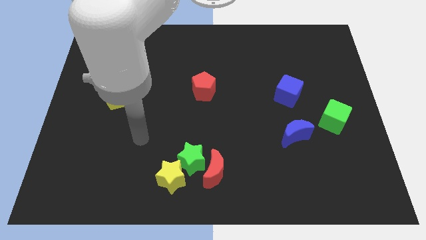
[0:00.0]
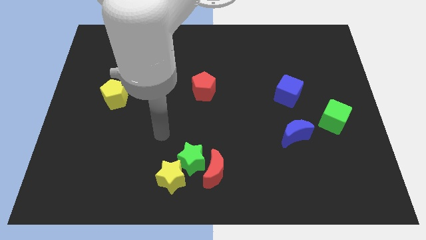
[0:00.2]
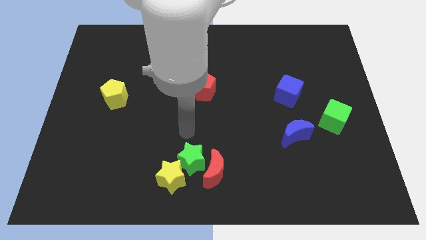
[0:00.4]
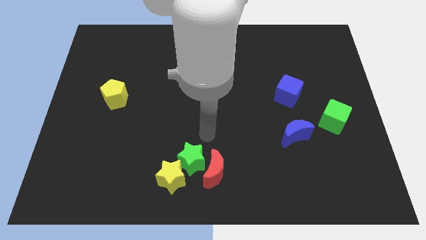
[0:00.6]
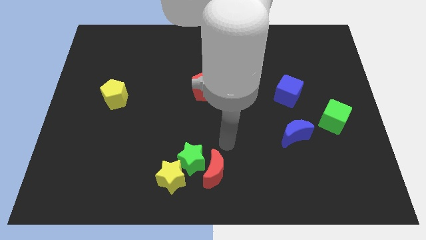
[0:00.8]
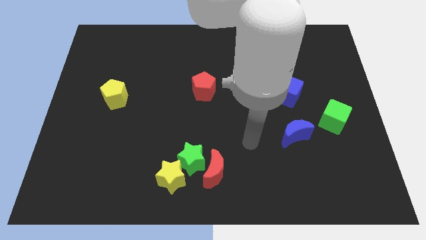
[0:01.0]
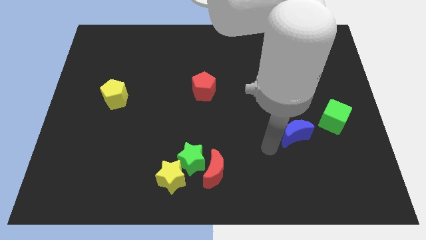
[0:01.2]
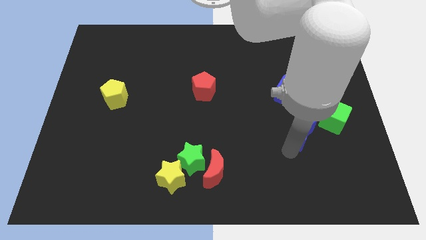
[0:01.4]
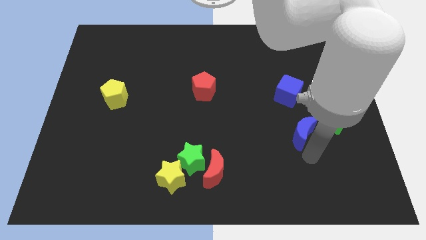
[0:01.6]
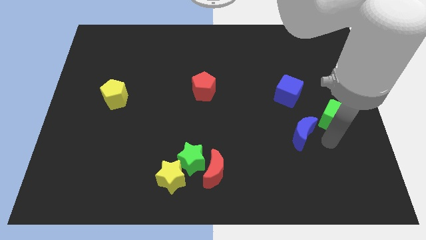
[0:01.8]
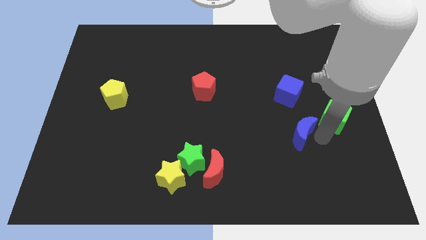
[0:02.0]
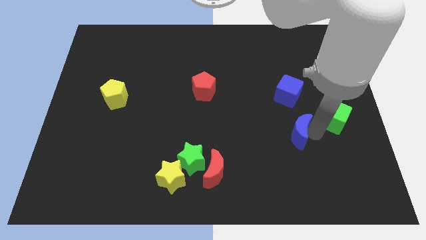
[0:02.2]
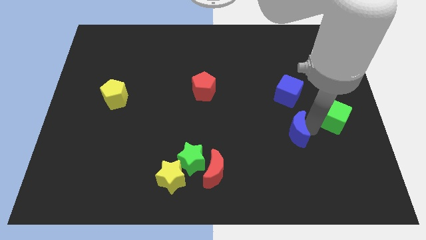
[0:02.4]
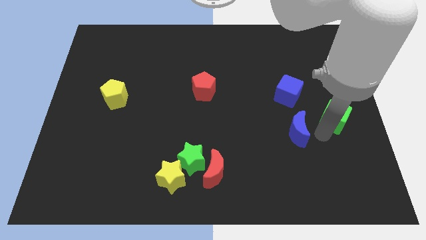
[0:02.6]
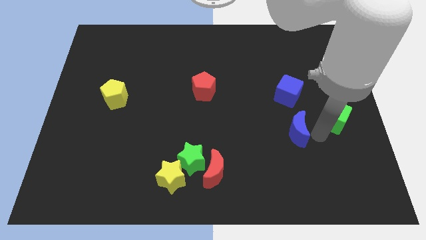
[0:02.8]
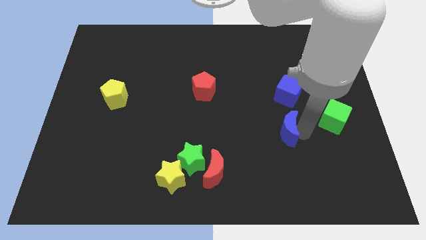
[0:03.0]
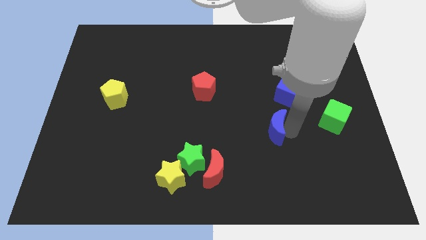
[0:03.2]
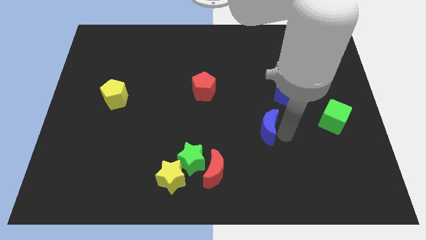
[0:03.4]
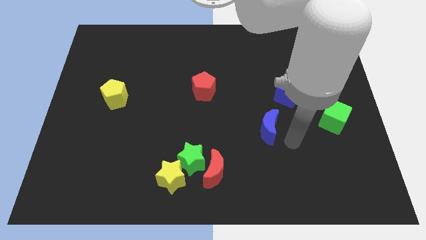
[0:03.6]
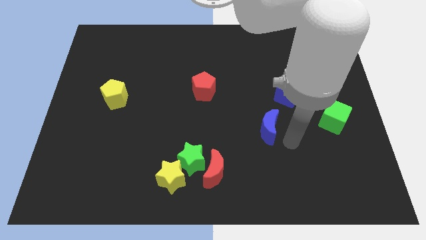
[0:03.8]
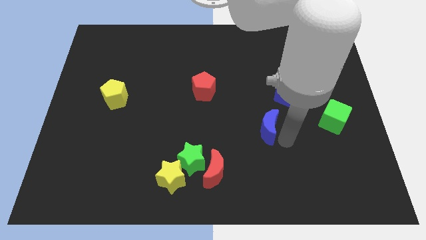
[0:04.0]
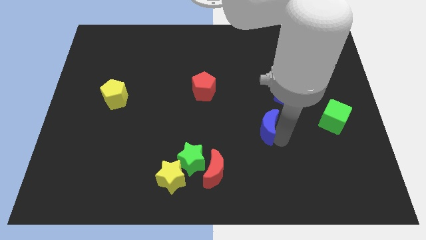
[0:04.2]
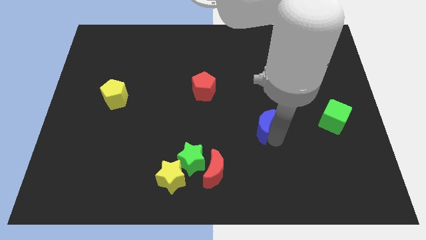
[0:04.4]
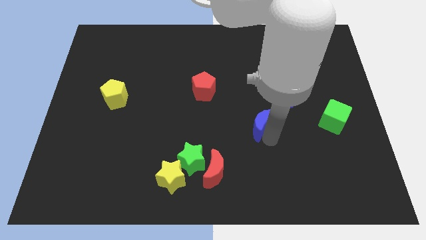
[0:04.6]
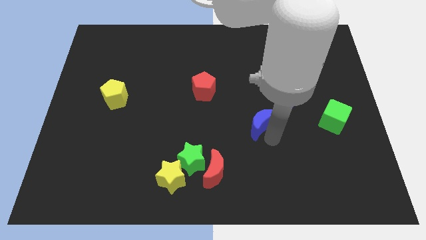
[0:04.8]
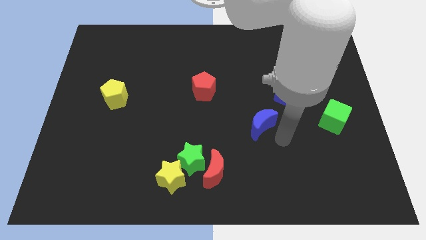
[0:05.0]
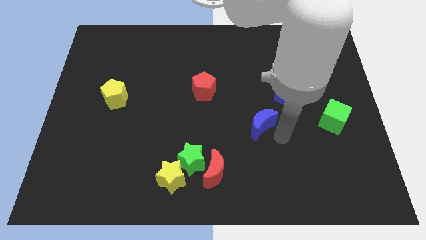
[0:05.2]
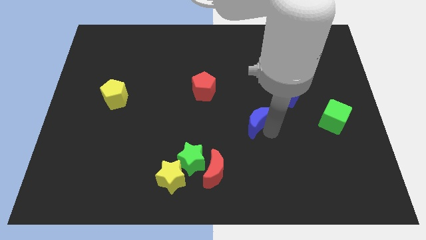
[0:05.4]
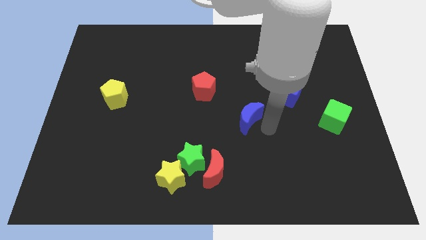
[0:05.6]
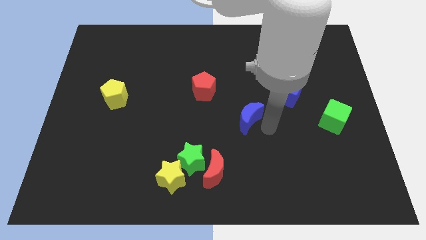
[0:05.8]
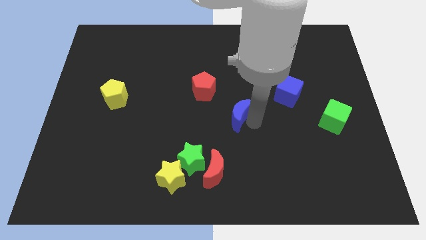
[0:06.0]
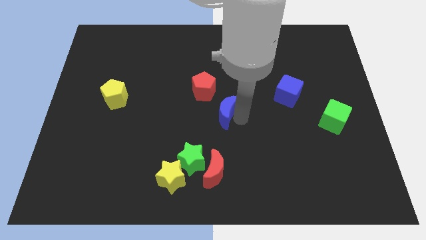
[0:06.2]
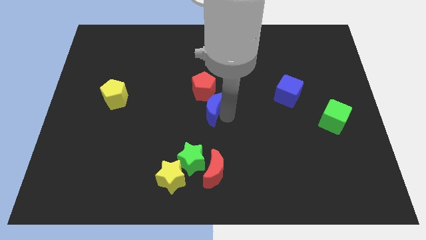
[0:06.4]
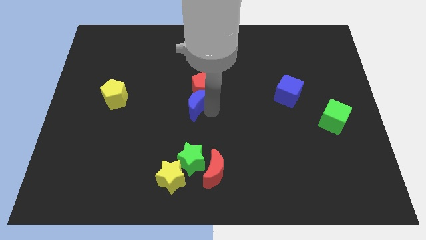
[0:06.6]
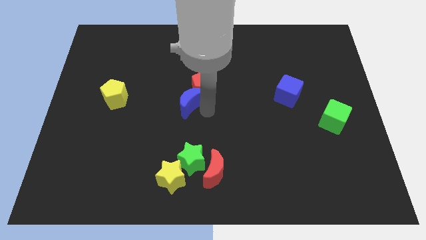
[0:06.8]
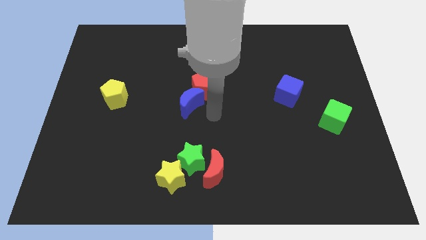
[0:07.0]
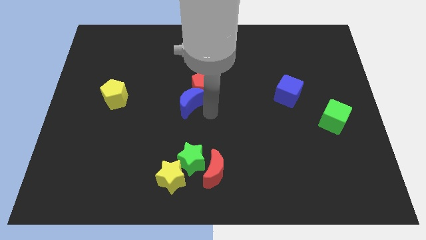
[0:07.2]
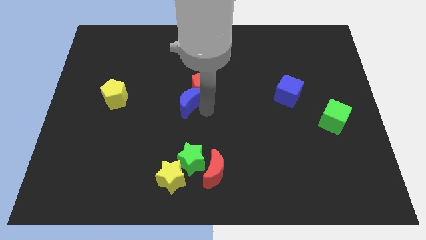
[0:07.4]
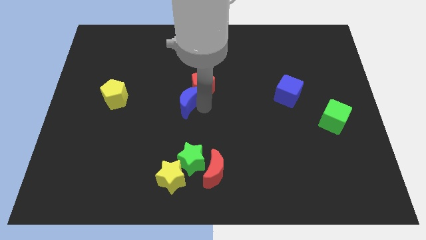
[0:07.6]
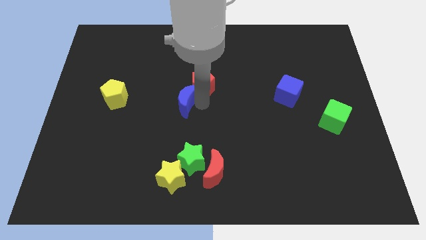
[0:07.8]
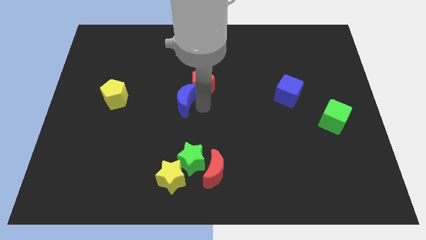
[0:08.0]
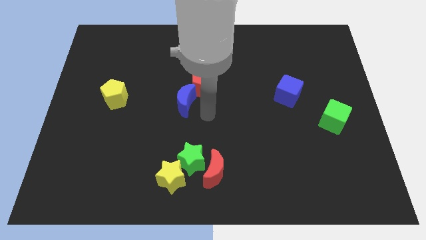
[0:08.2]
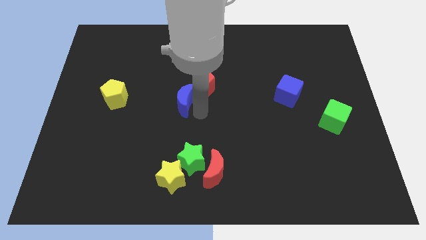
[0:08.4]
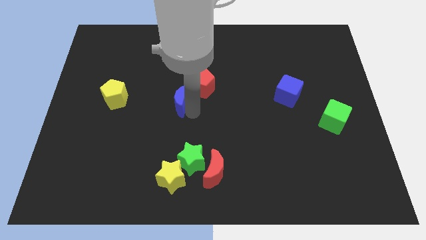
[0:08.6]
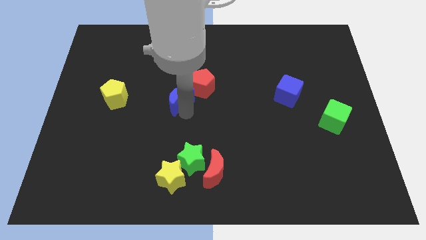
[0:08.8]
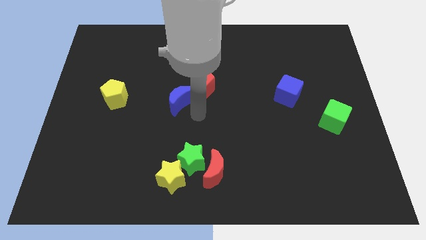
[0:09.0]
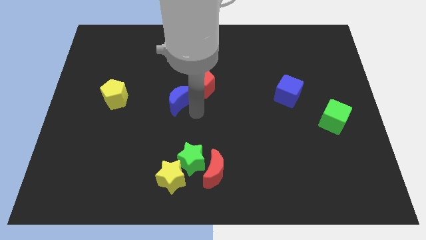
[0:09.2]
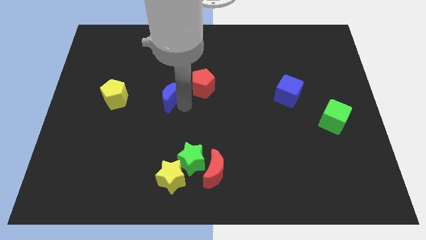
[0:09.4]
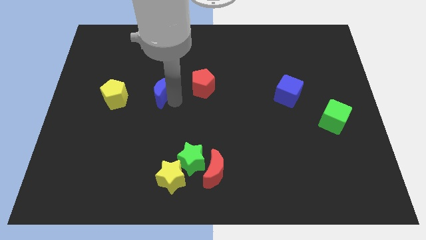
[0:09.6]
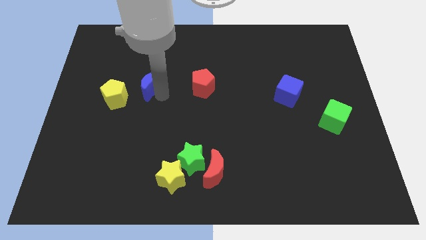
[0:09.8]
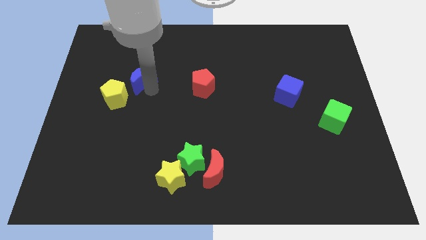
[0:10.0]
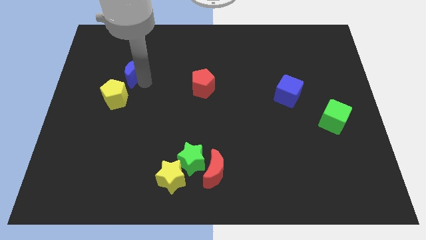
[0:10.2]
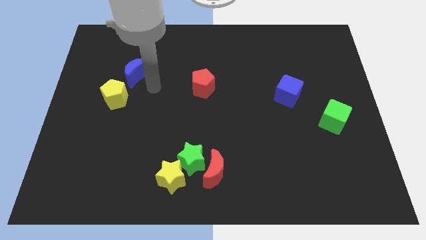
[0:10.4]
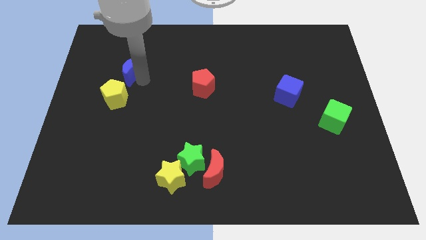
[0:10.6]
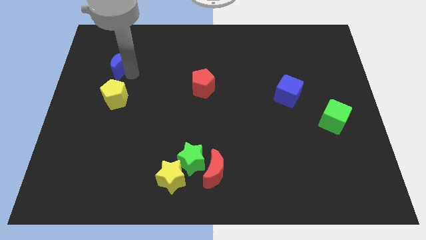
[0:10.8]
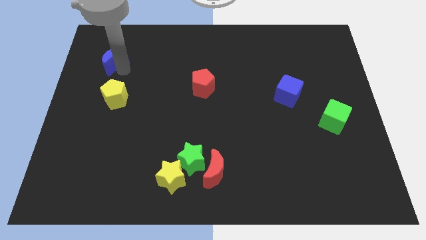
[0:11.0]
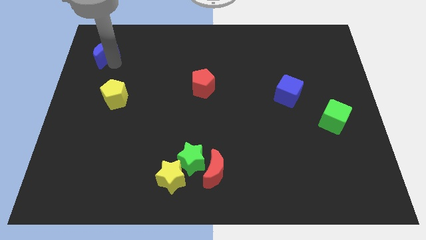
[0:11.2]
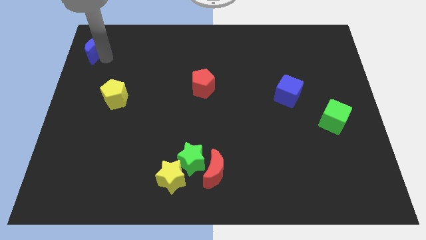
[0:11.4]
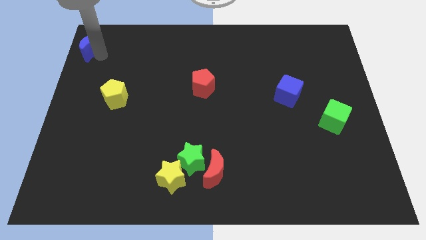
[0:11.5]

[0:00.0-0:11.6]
move the blue moon to the top left corner

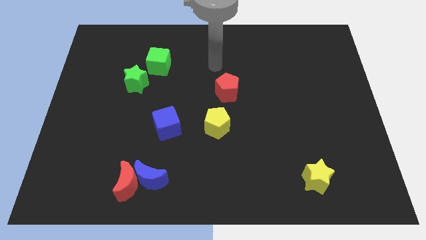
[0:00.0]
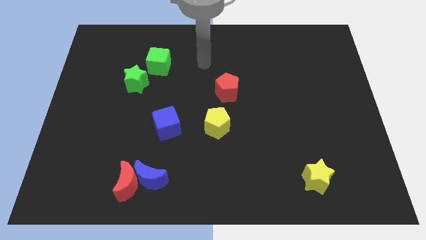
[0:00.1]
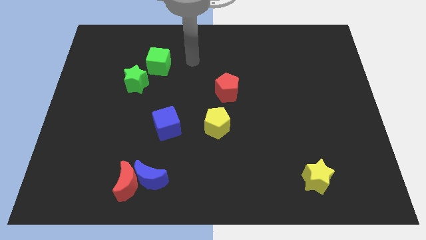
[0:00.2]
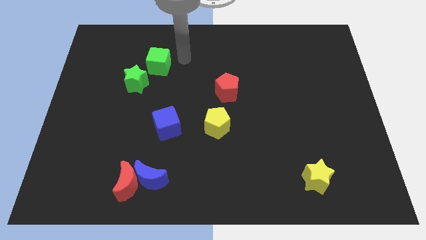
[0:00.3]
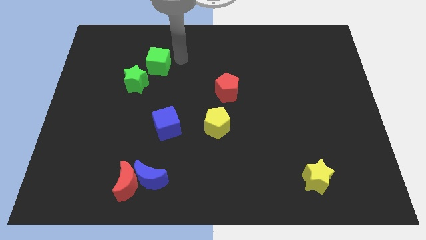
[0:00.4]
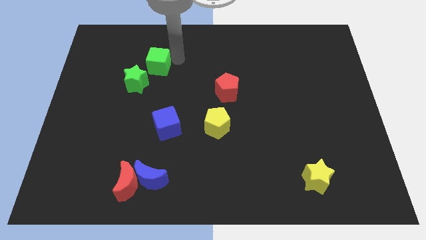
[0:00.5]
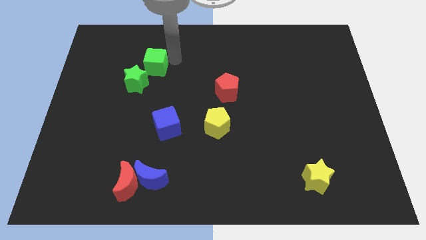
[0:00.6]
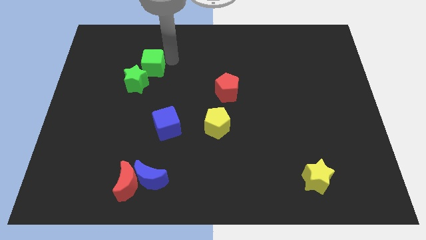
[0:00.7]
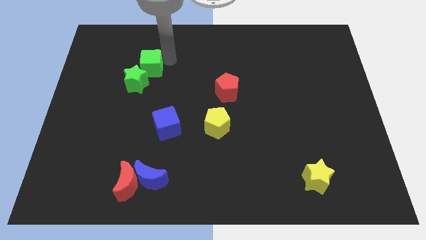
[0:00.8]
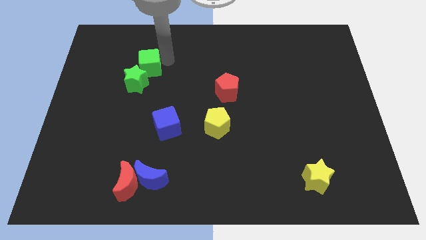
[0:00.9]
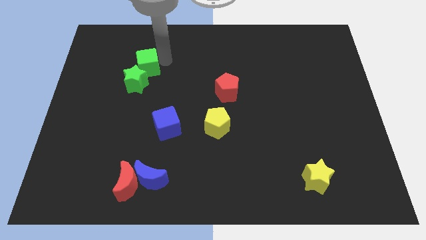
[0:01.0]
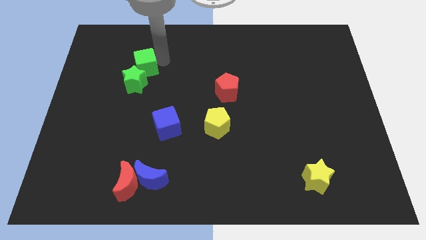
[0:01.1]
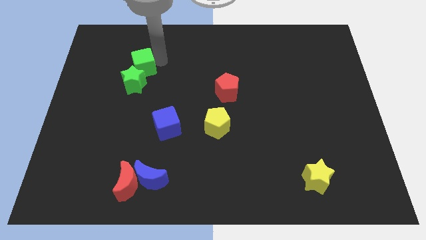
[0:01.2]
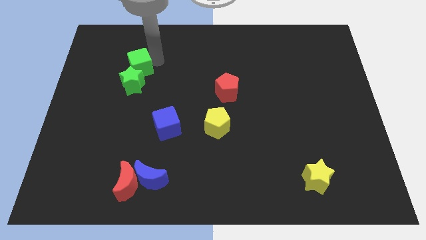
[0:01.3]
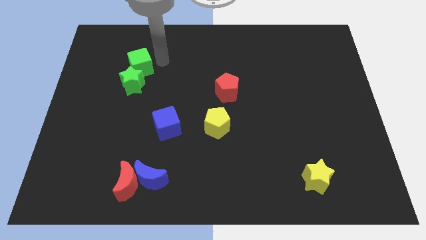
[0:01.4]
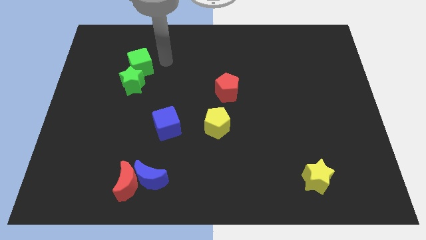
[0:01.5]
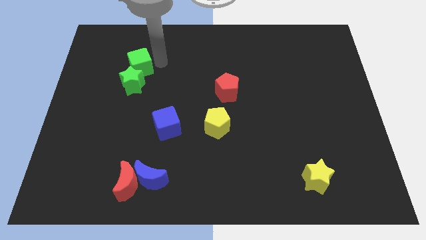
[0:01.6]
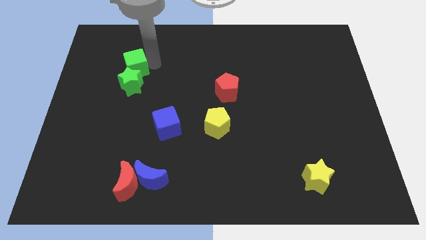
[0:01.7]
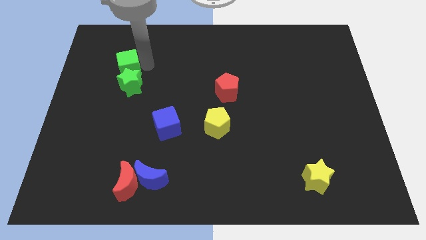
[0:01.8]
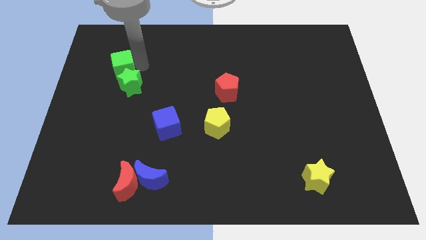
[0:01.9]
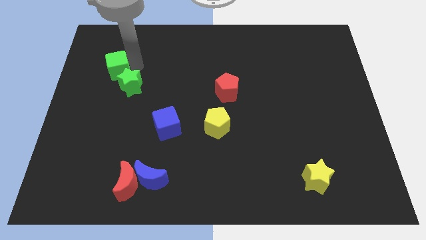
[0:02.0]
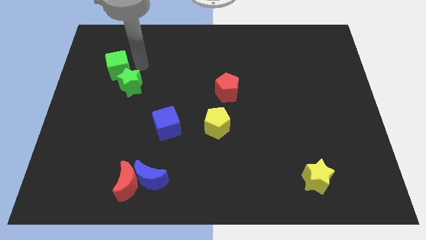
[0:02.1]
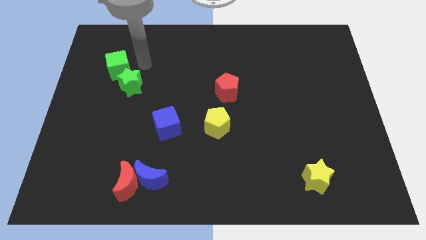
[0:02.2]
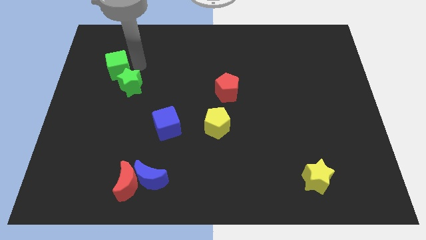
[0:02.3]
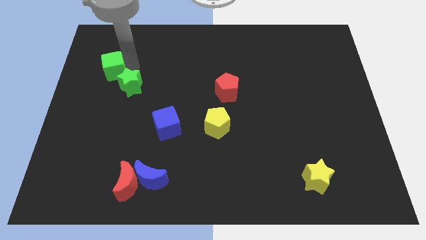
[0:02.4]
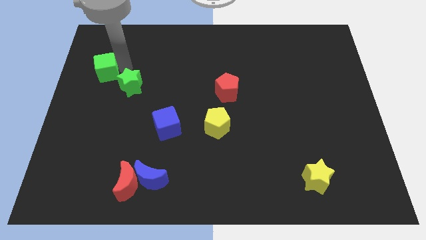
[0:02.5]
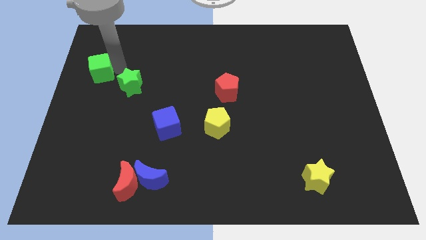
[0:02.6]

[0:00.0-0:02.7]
push the green cube to the center left
